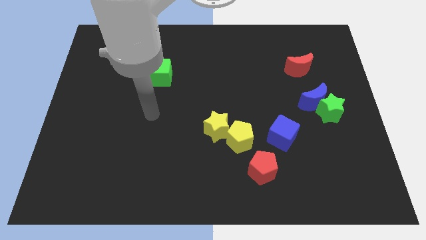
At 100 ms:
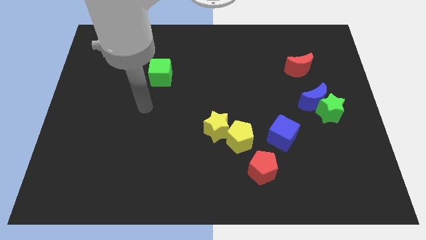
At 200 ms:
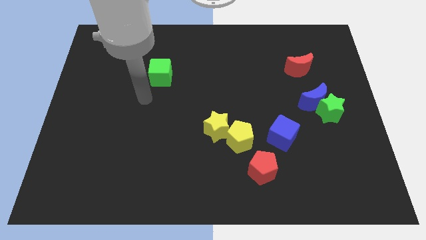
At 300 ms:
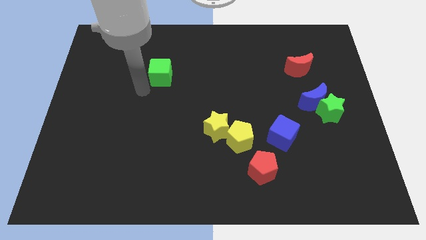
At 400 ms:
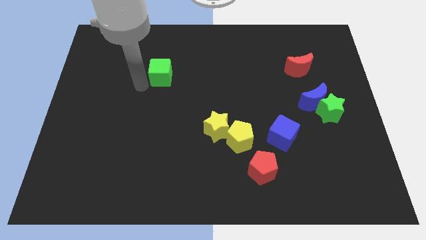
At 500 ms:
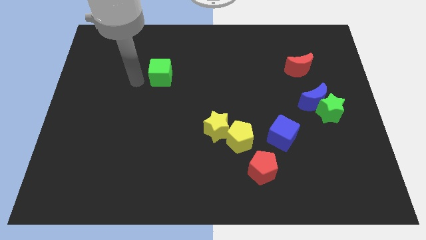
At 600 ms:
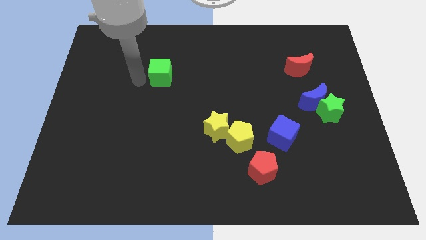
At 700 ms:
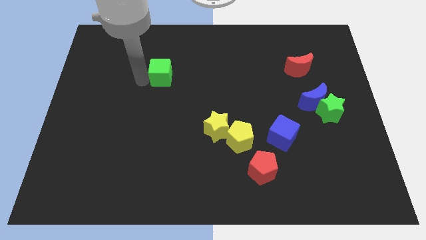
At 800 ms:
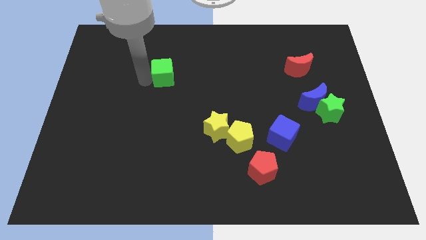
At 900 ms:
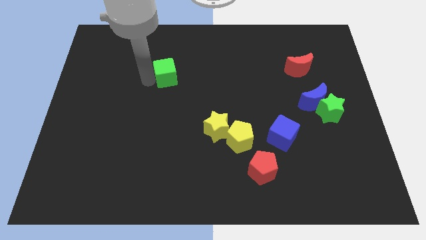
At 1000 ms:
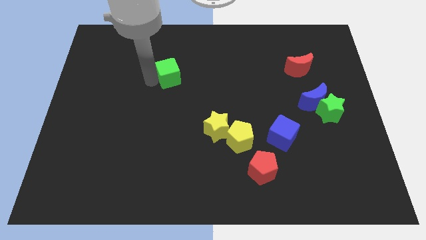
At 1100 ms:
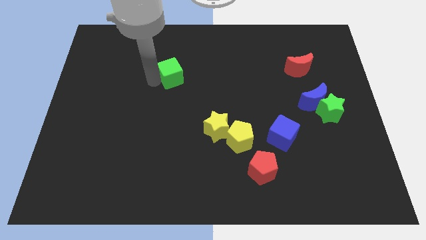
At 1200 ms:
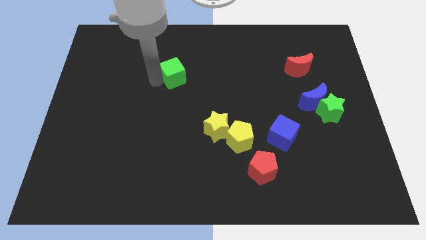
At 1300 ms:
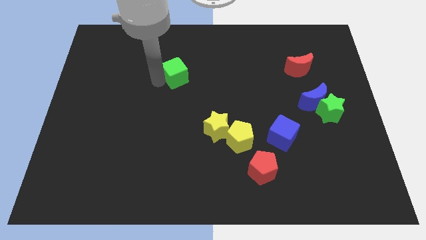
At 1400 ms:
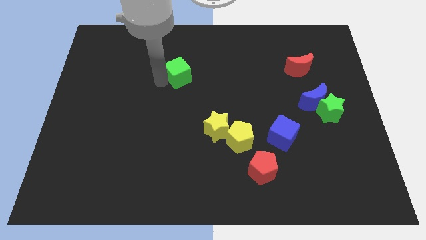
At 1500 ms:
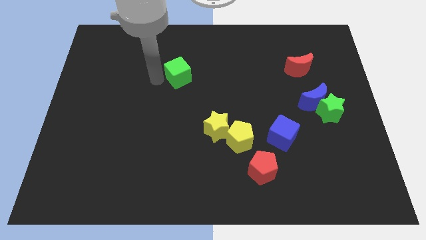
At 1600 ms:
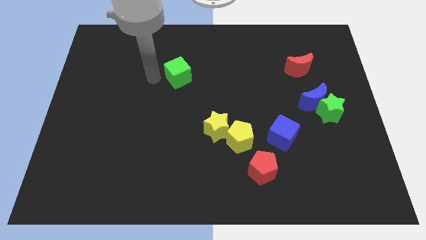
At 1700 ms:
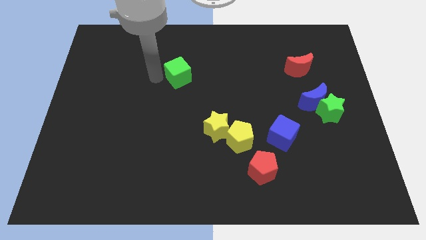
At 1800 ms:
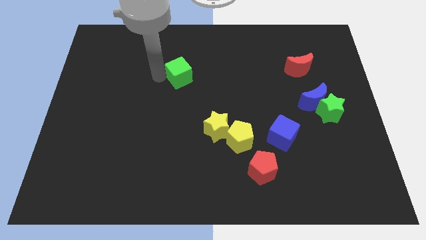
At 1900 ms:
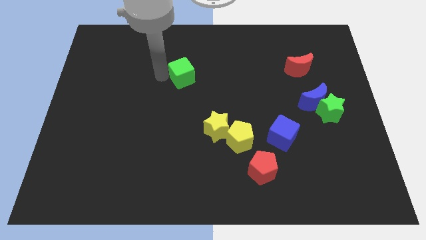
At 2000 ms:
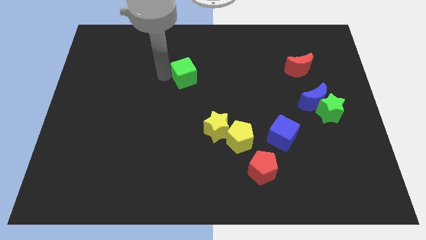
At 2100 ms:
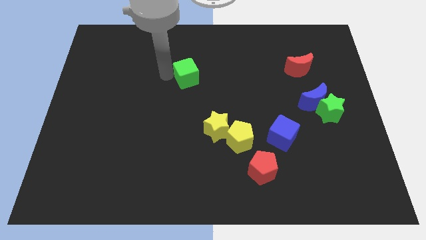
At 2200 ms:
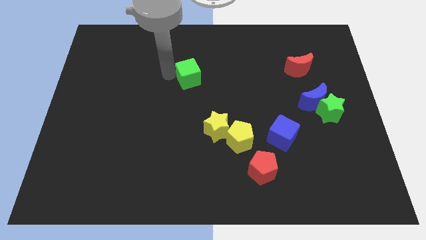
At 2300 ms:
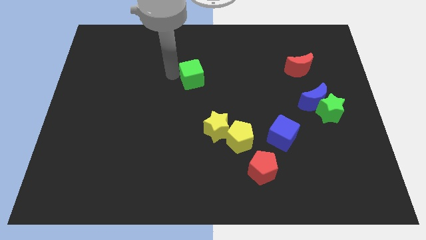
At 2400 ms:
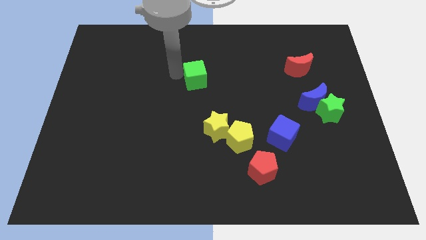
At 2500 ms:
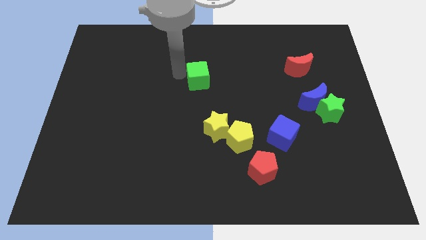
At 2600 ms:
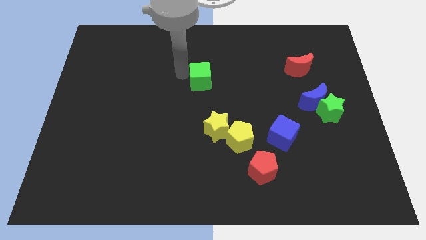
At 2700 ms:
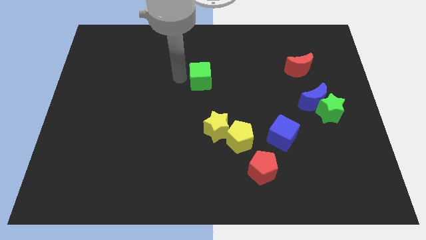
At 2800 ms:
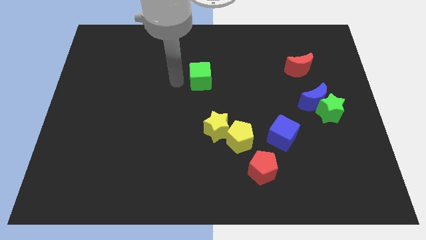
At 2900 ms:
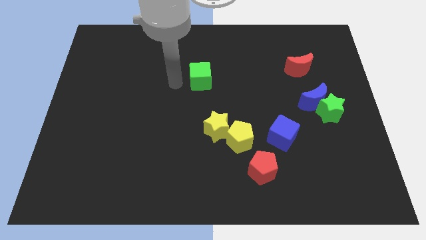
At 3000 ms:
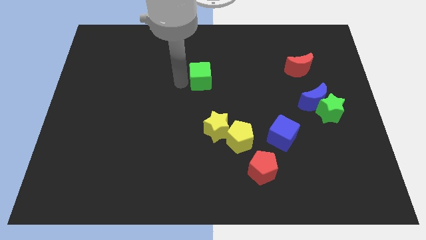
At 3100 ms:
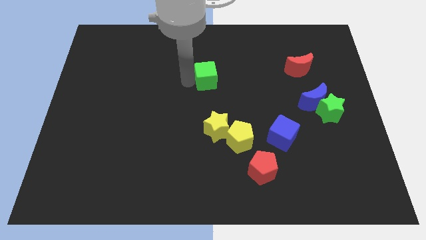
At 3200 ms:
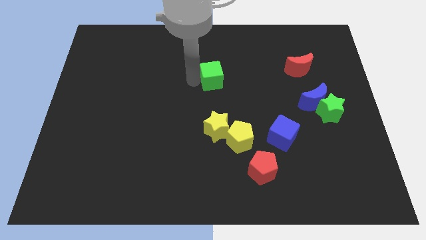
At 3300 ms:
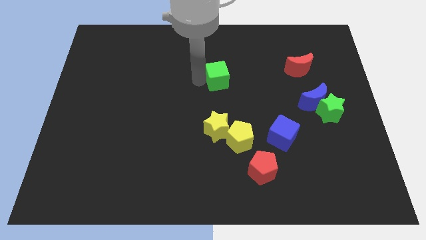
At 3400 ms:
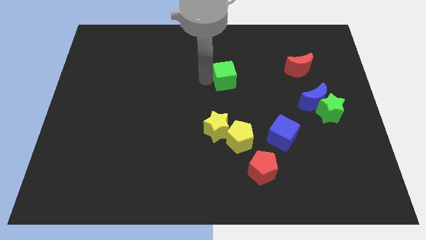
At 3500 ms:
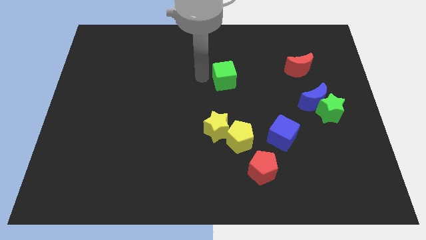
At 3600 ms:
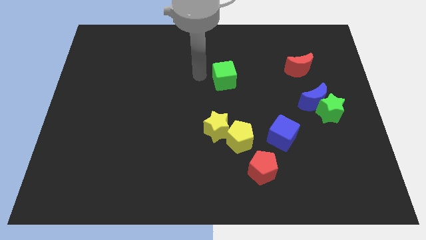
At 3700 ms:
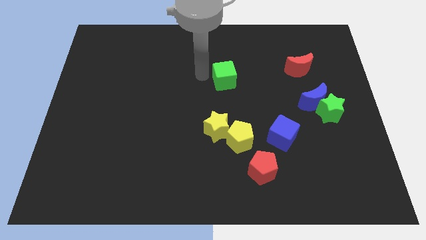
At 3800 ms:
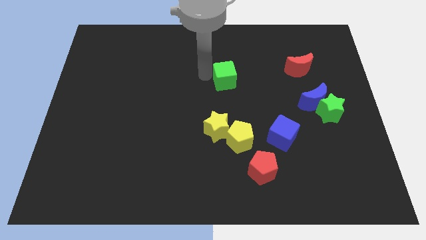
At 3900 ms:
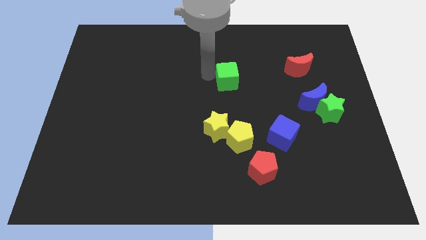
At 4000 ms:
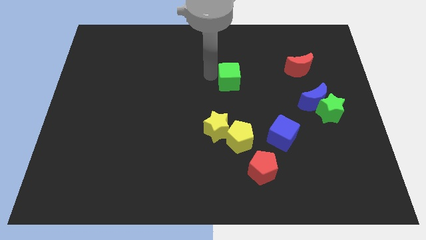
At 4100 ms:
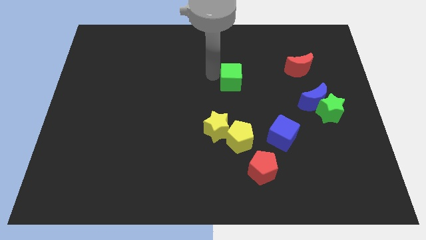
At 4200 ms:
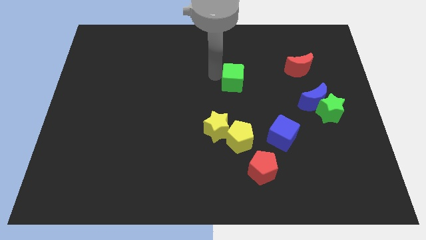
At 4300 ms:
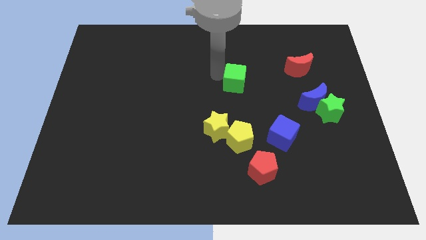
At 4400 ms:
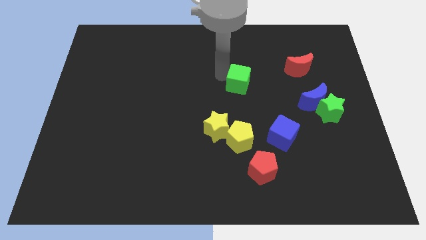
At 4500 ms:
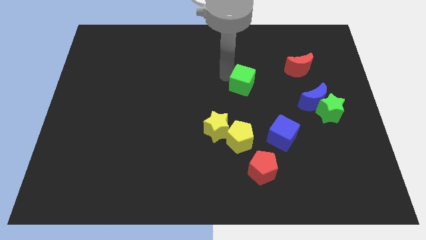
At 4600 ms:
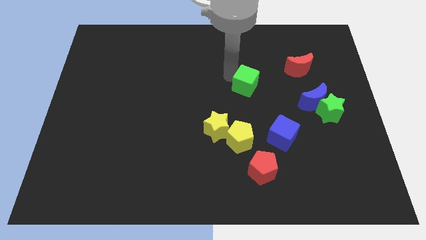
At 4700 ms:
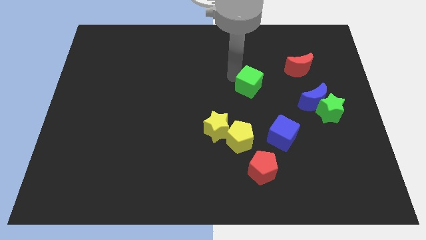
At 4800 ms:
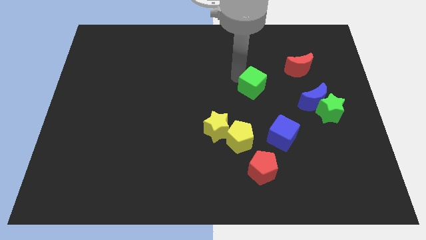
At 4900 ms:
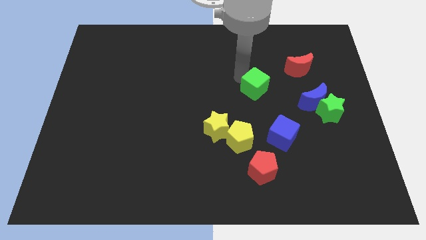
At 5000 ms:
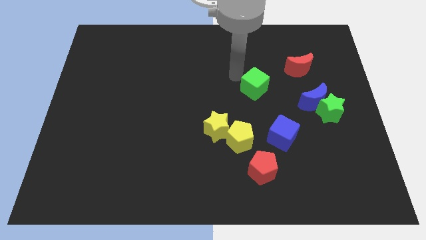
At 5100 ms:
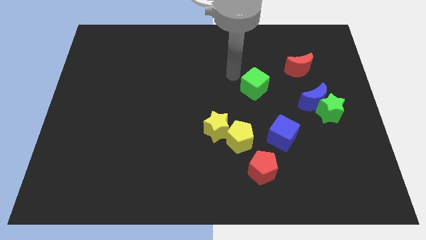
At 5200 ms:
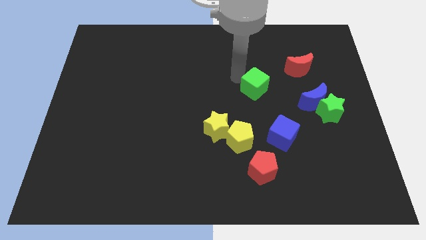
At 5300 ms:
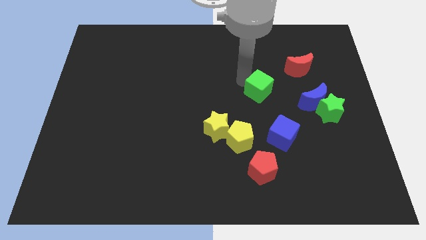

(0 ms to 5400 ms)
move the green cube above the blue cube

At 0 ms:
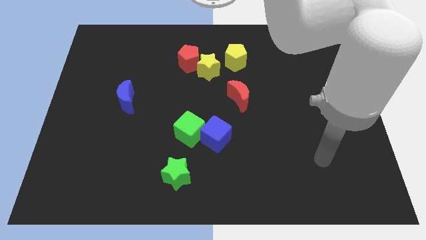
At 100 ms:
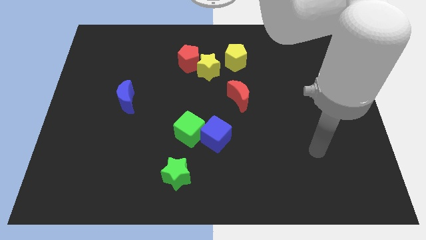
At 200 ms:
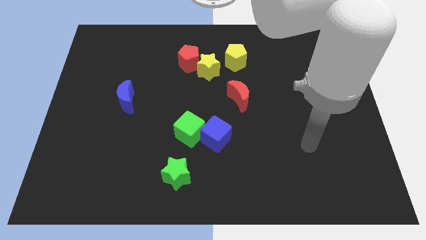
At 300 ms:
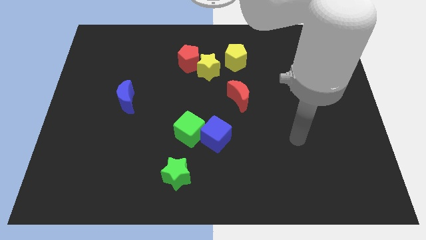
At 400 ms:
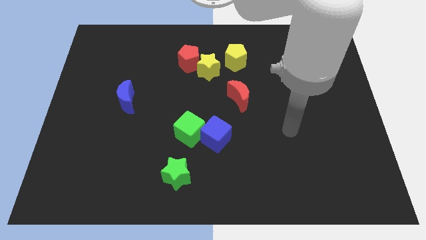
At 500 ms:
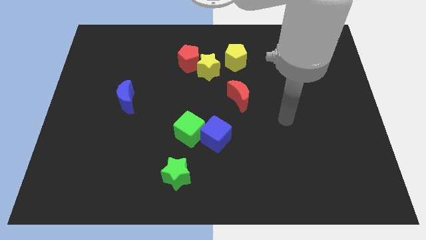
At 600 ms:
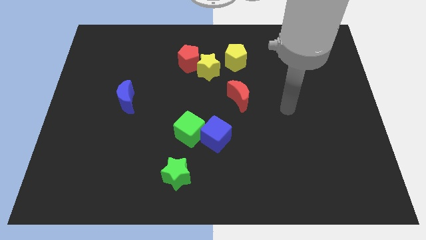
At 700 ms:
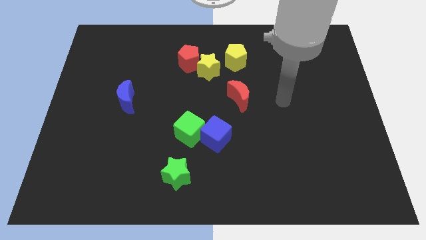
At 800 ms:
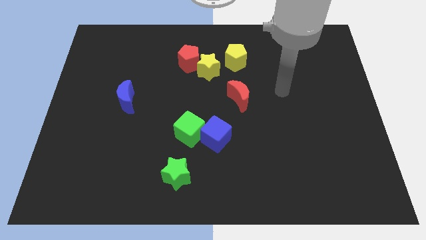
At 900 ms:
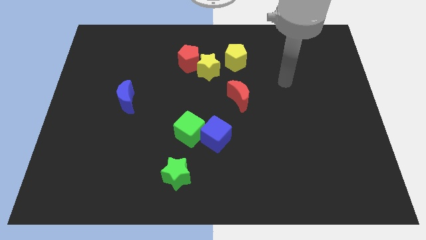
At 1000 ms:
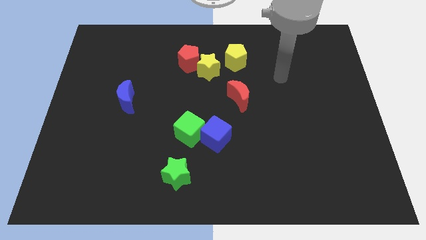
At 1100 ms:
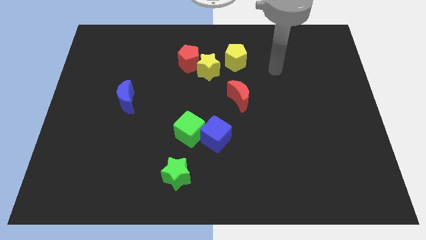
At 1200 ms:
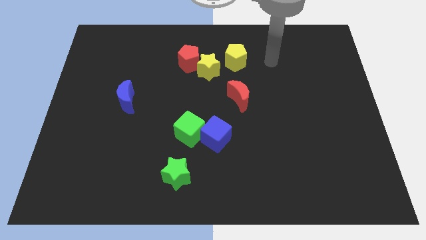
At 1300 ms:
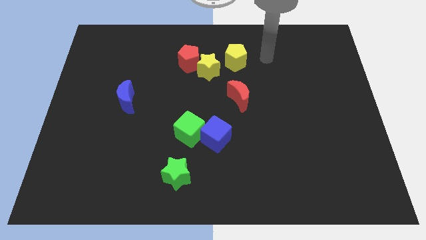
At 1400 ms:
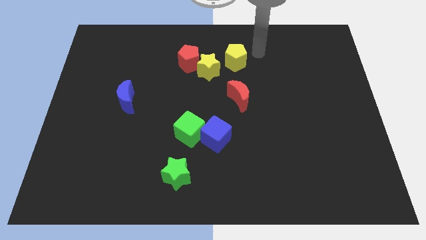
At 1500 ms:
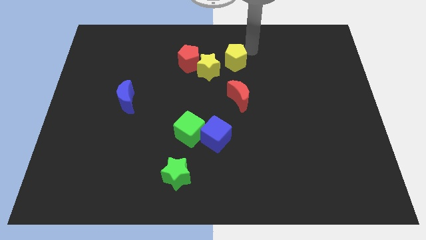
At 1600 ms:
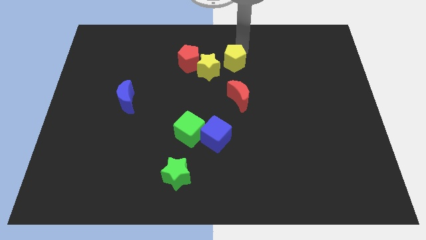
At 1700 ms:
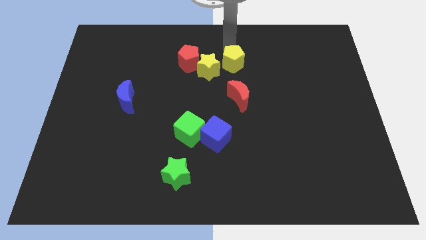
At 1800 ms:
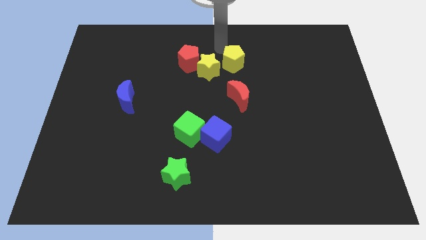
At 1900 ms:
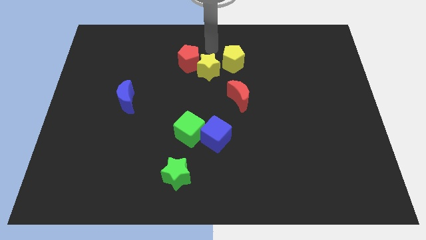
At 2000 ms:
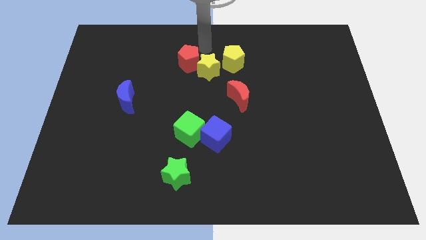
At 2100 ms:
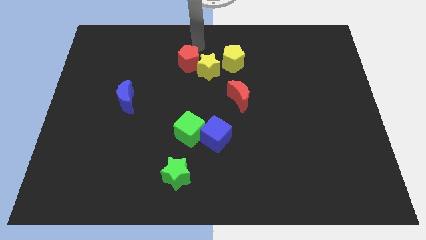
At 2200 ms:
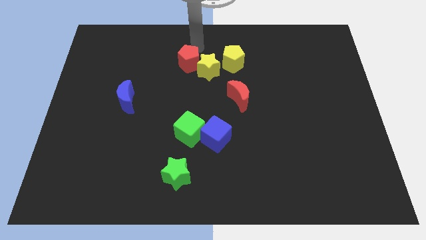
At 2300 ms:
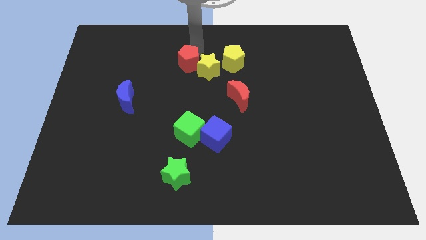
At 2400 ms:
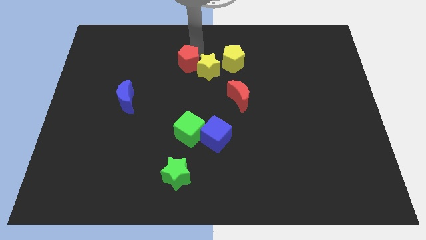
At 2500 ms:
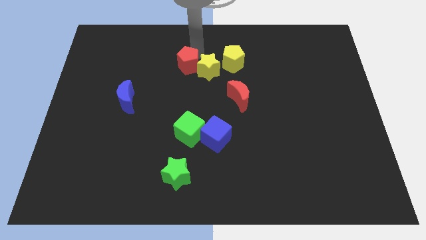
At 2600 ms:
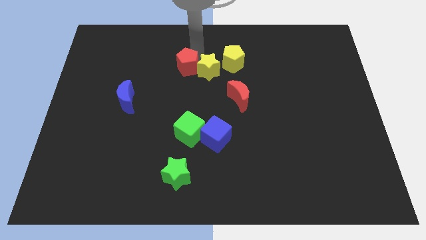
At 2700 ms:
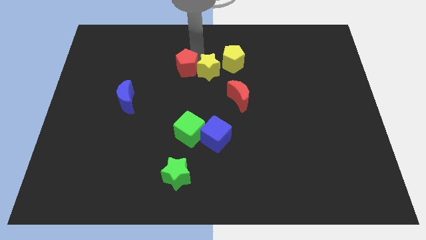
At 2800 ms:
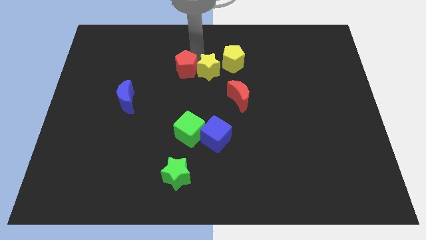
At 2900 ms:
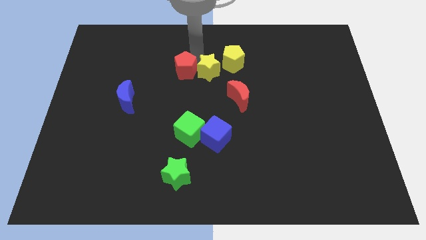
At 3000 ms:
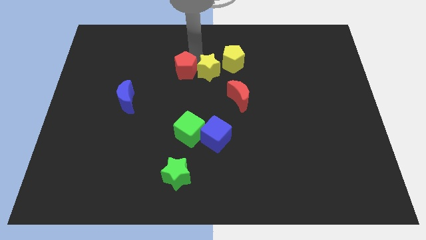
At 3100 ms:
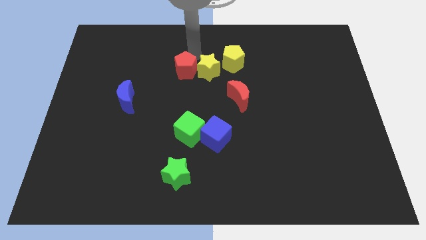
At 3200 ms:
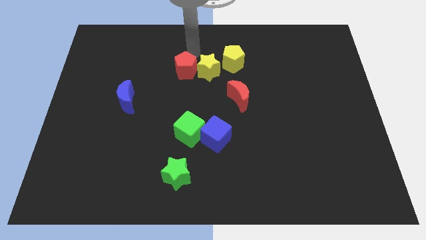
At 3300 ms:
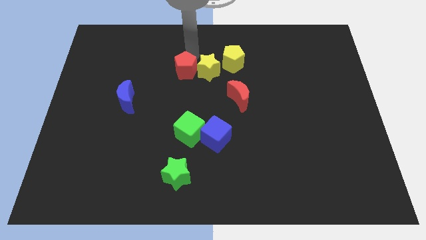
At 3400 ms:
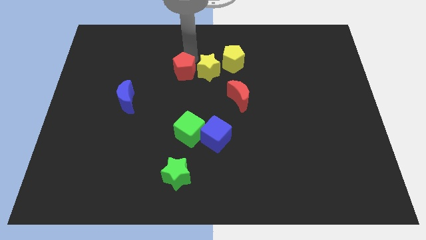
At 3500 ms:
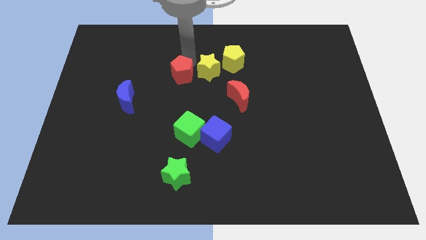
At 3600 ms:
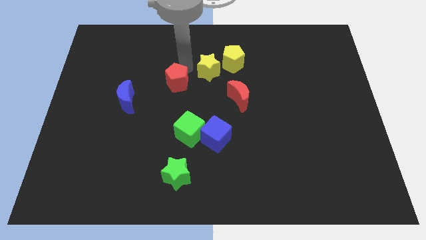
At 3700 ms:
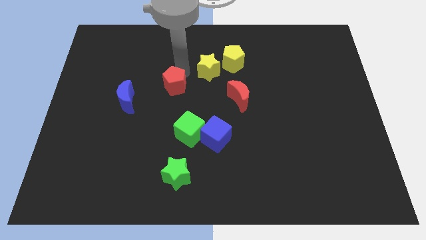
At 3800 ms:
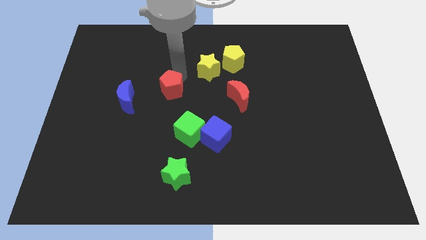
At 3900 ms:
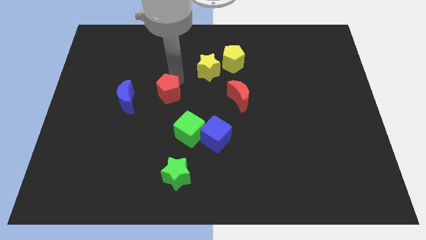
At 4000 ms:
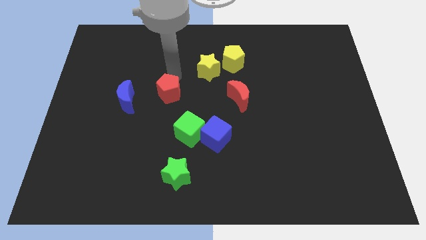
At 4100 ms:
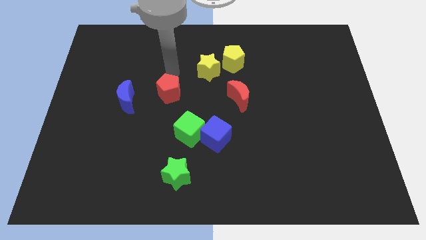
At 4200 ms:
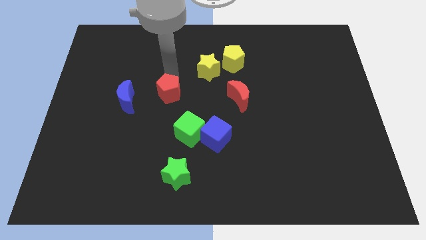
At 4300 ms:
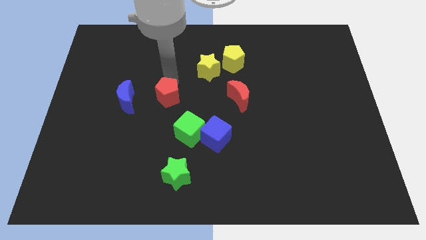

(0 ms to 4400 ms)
push the red pentagon to the top left side of the green cube
